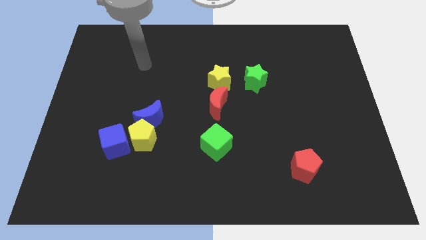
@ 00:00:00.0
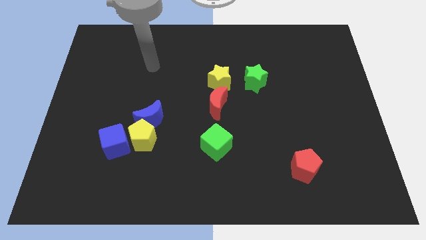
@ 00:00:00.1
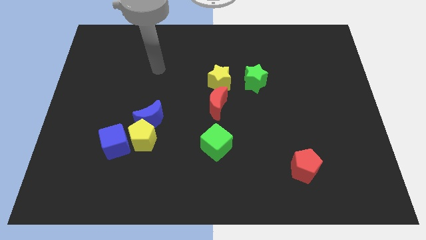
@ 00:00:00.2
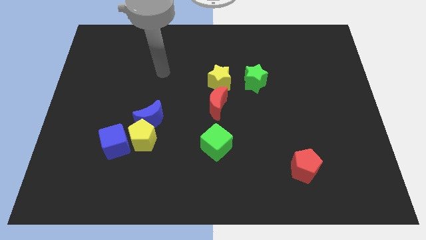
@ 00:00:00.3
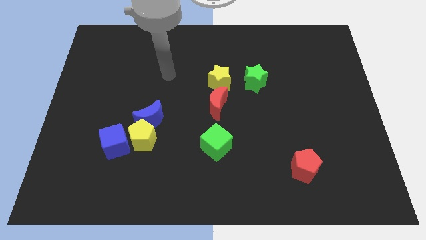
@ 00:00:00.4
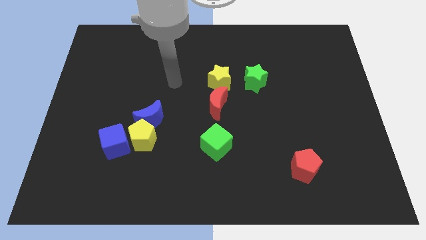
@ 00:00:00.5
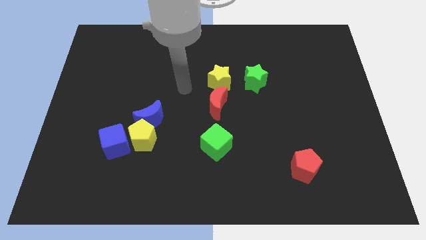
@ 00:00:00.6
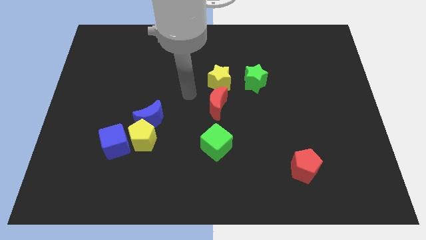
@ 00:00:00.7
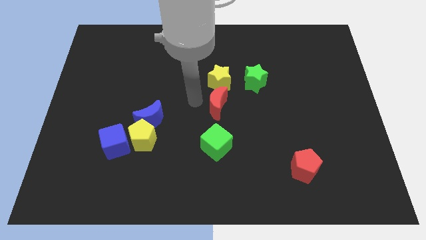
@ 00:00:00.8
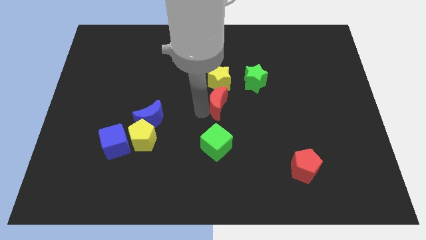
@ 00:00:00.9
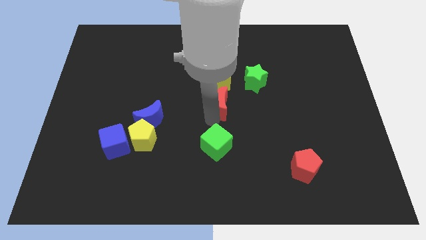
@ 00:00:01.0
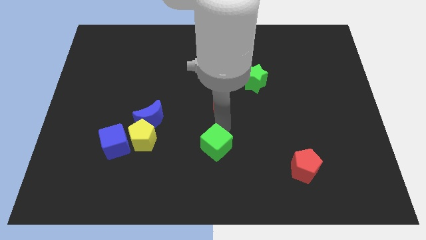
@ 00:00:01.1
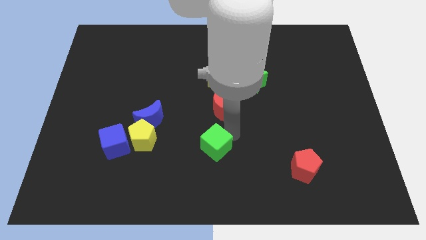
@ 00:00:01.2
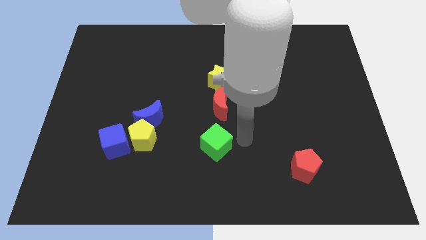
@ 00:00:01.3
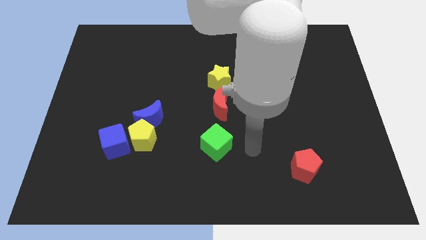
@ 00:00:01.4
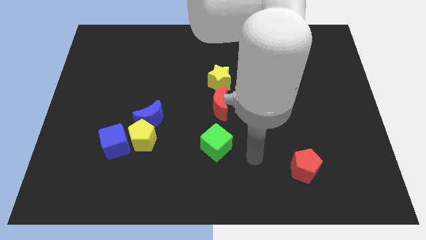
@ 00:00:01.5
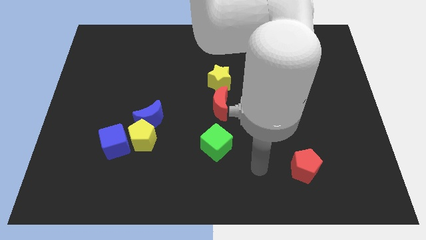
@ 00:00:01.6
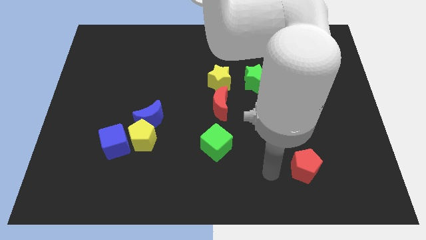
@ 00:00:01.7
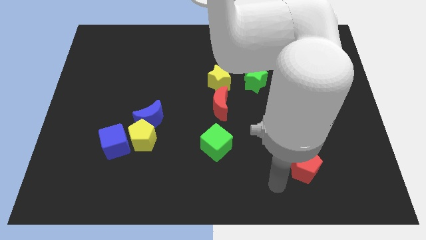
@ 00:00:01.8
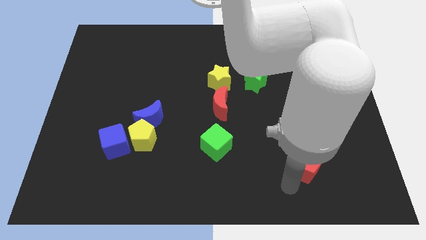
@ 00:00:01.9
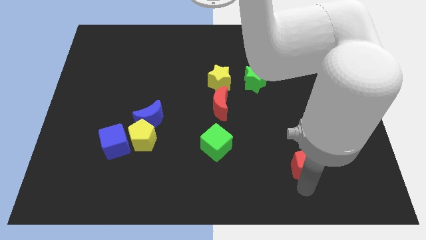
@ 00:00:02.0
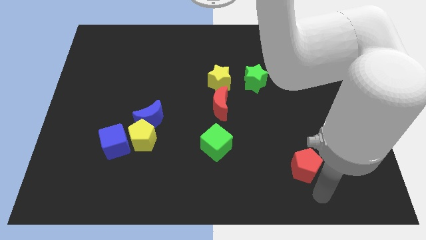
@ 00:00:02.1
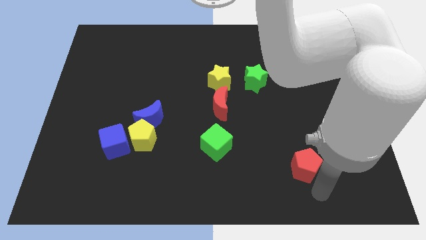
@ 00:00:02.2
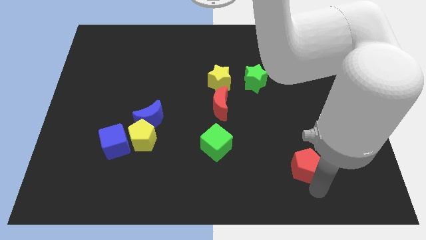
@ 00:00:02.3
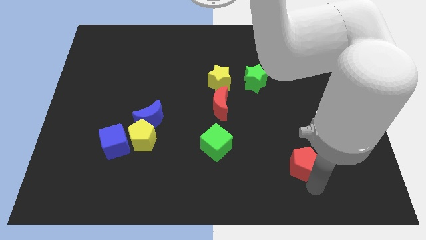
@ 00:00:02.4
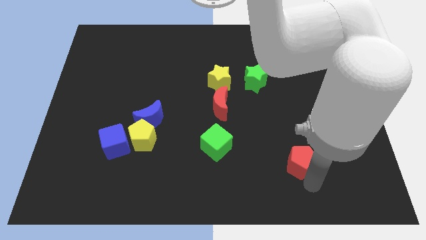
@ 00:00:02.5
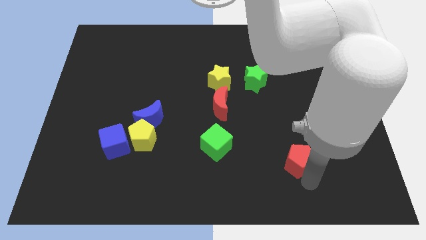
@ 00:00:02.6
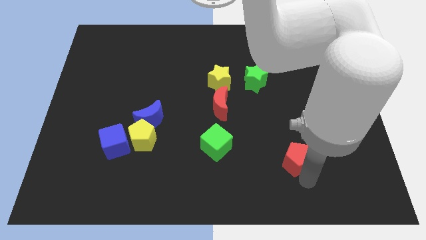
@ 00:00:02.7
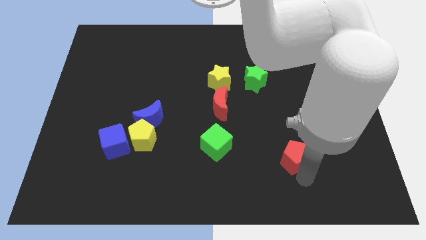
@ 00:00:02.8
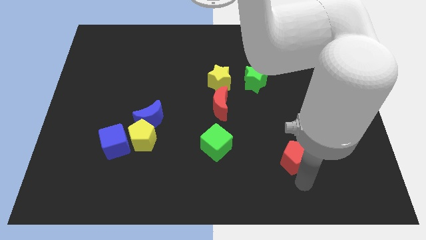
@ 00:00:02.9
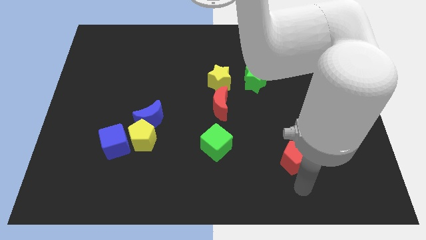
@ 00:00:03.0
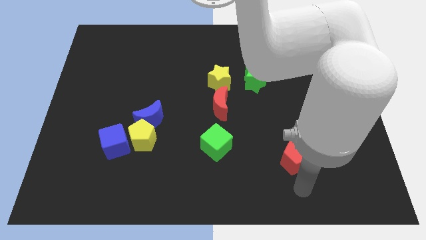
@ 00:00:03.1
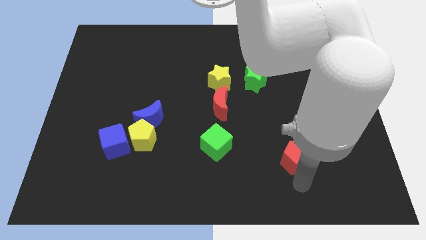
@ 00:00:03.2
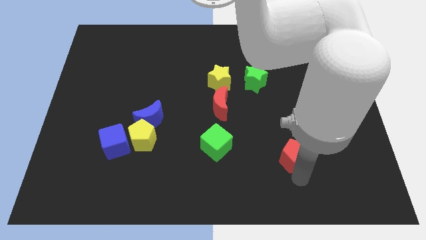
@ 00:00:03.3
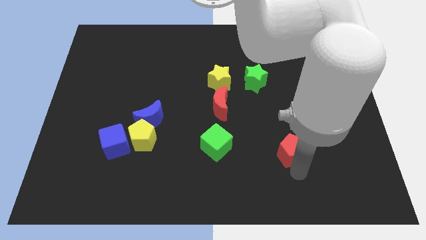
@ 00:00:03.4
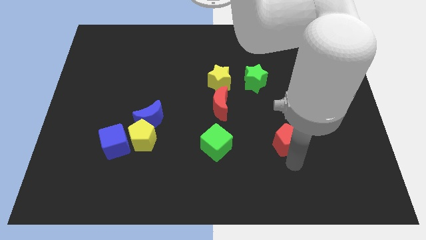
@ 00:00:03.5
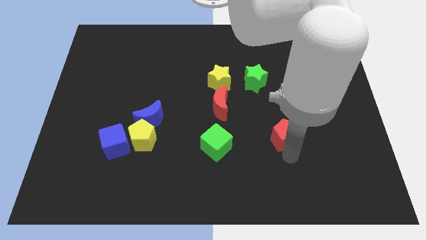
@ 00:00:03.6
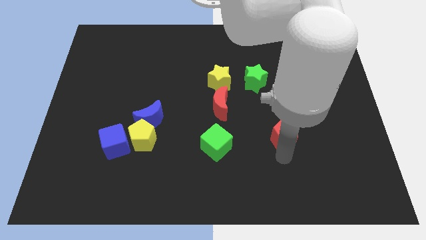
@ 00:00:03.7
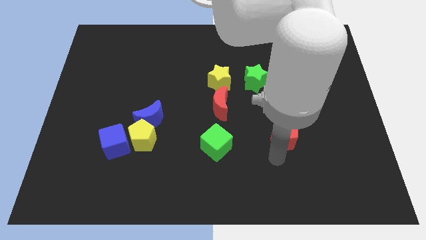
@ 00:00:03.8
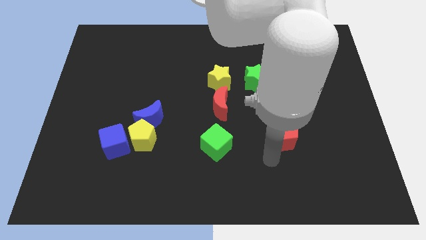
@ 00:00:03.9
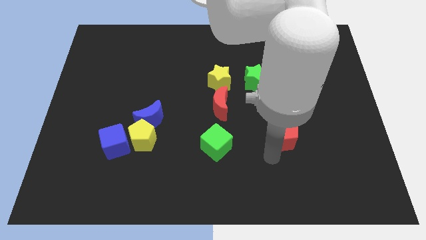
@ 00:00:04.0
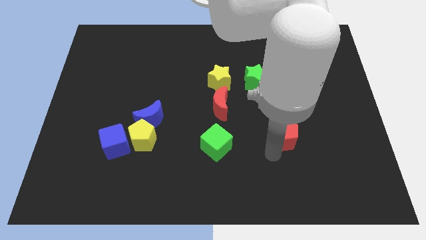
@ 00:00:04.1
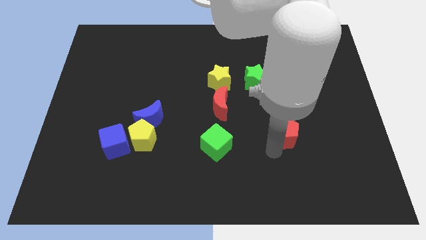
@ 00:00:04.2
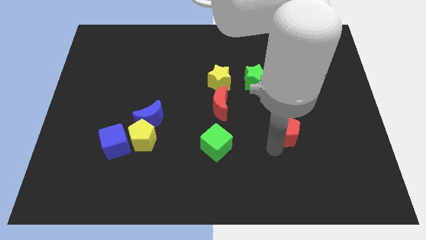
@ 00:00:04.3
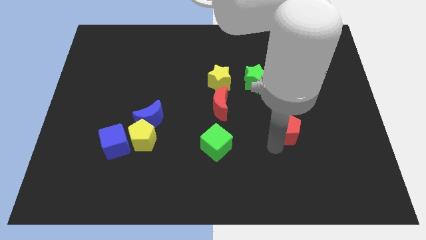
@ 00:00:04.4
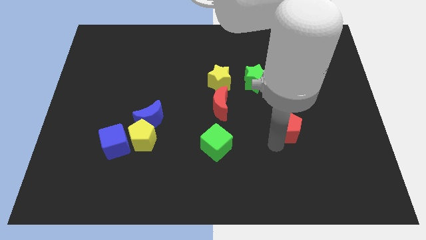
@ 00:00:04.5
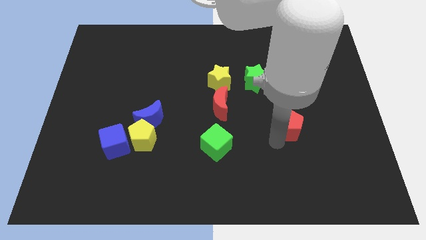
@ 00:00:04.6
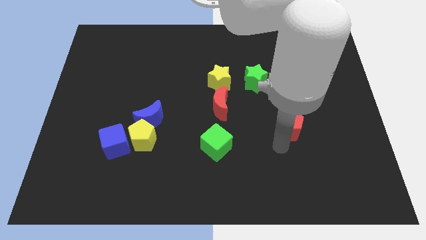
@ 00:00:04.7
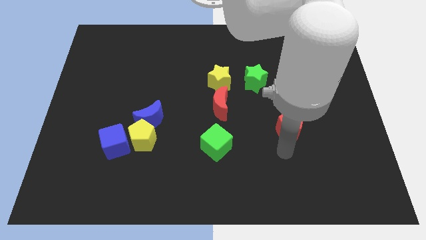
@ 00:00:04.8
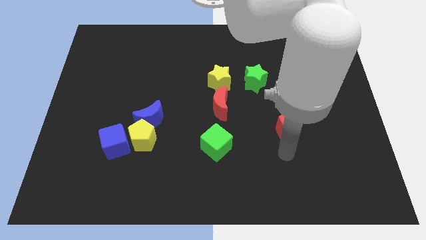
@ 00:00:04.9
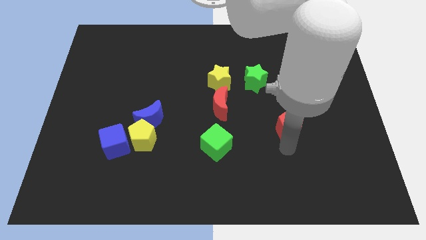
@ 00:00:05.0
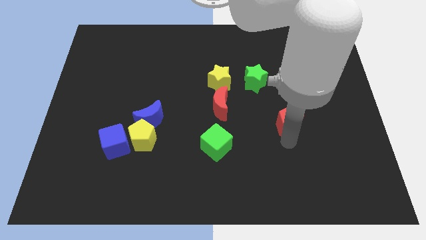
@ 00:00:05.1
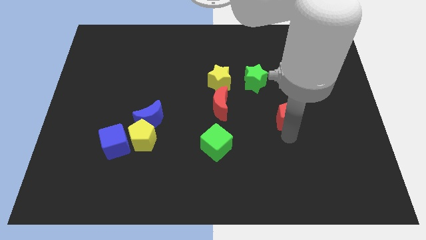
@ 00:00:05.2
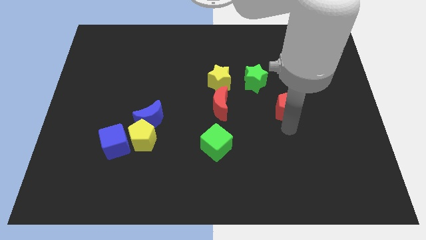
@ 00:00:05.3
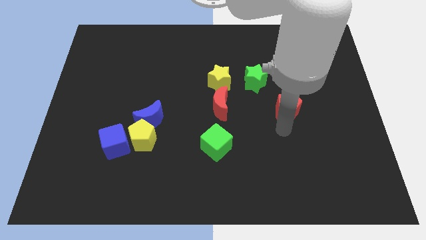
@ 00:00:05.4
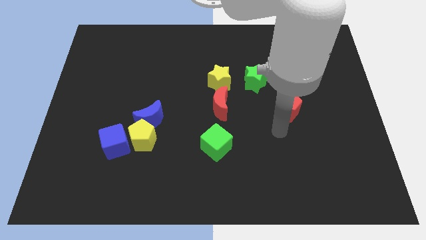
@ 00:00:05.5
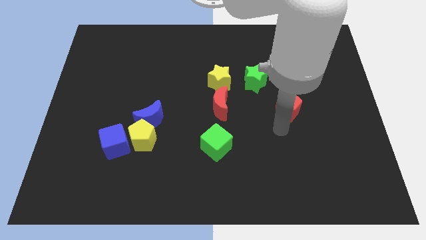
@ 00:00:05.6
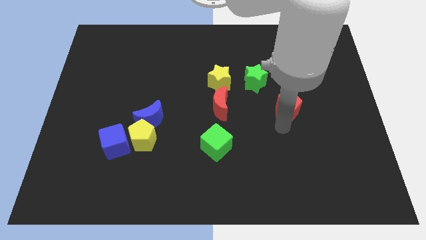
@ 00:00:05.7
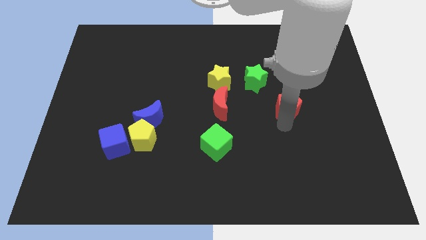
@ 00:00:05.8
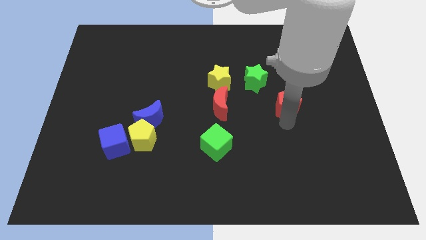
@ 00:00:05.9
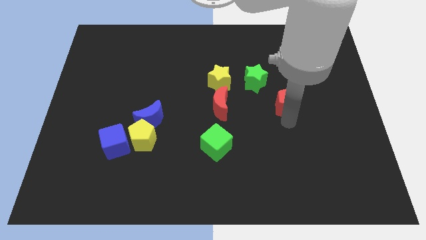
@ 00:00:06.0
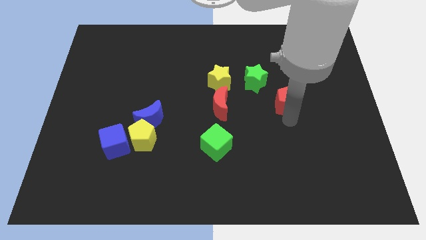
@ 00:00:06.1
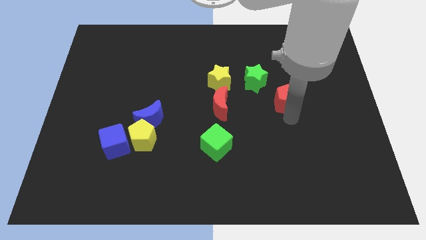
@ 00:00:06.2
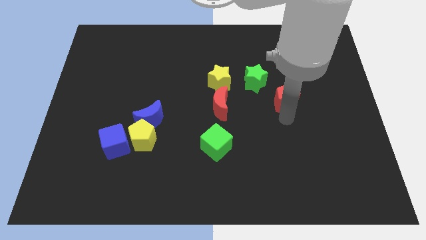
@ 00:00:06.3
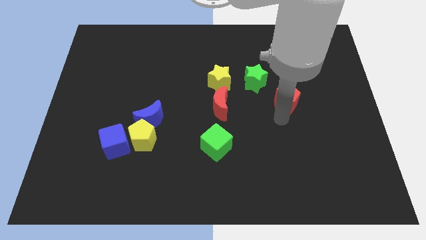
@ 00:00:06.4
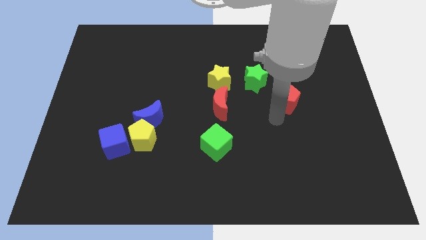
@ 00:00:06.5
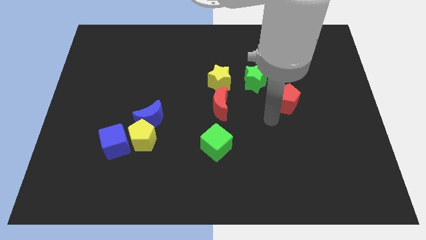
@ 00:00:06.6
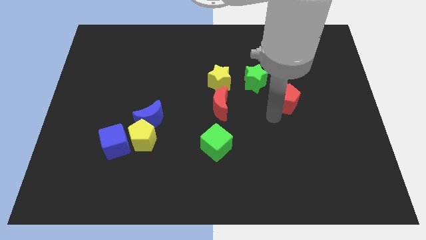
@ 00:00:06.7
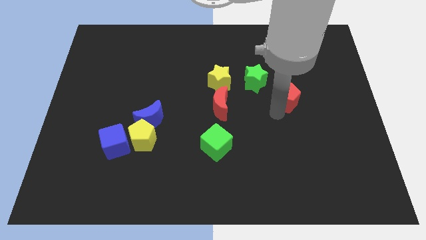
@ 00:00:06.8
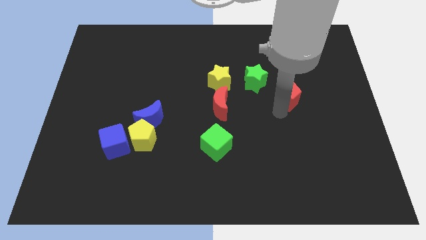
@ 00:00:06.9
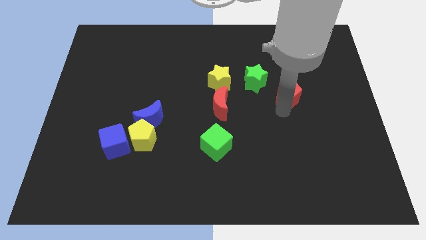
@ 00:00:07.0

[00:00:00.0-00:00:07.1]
move the red pentagon right of the green star
